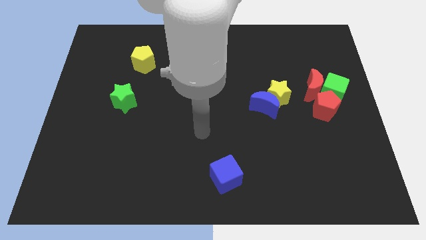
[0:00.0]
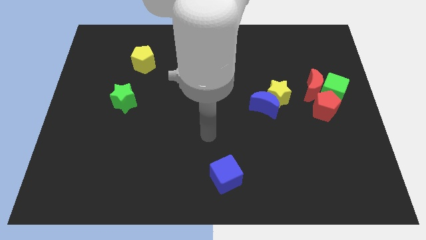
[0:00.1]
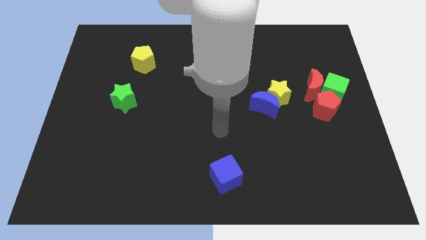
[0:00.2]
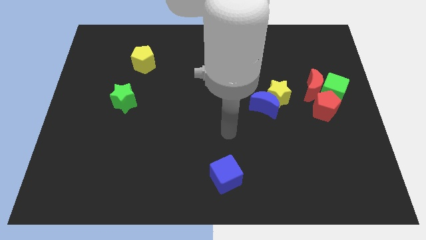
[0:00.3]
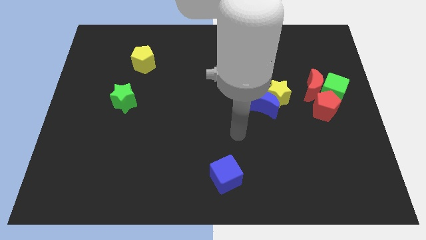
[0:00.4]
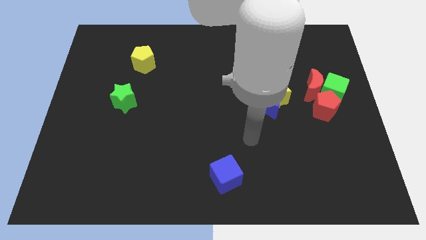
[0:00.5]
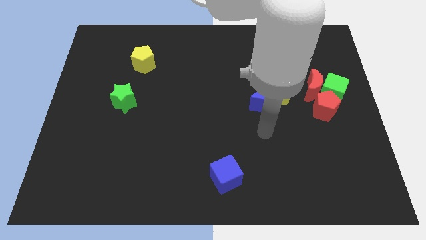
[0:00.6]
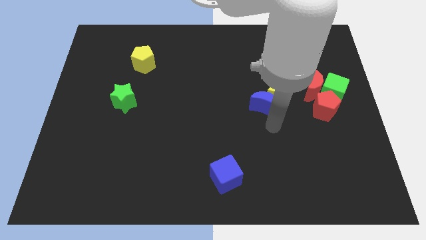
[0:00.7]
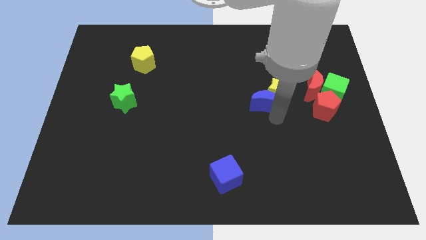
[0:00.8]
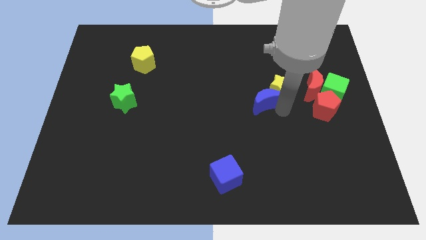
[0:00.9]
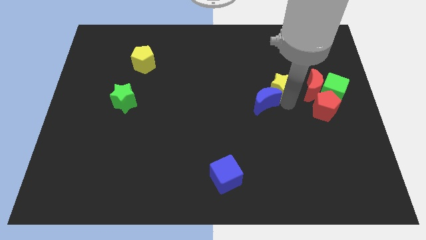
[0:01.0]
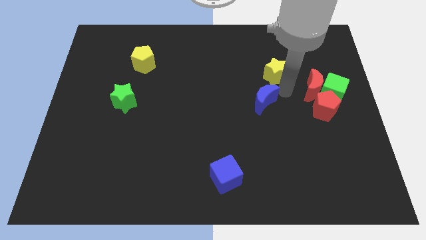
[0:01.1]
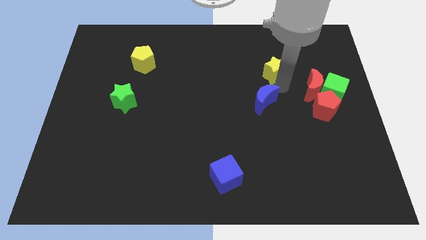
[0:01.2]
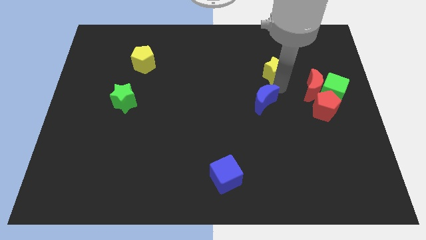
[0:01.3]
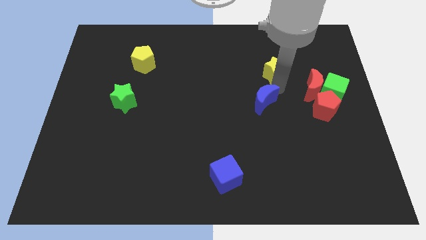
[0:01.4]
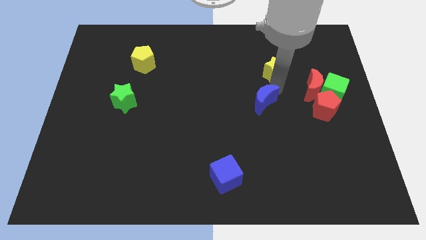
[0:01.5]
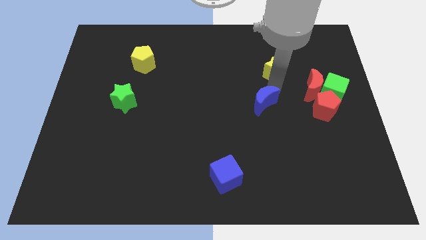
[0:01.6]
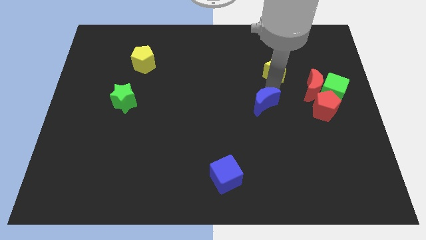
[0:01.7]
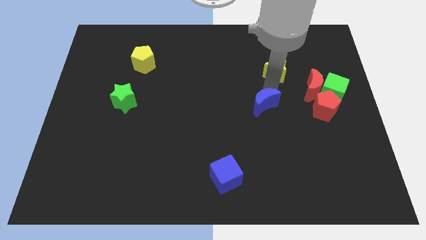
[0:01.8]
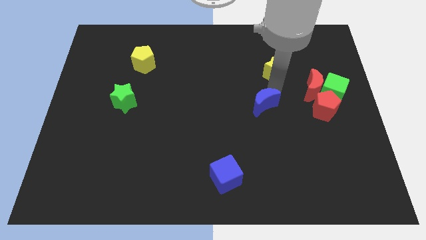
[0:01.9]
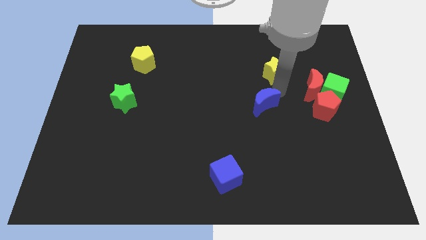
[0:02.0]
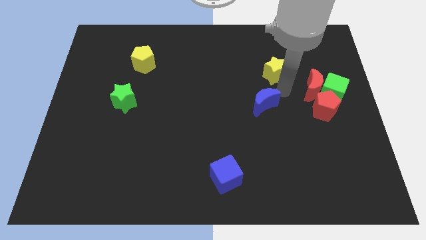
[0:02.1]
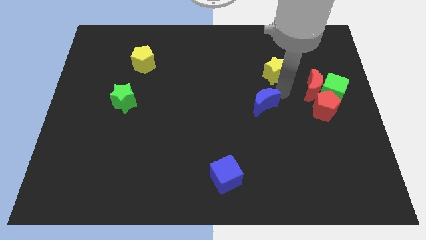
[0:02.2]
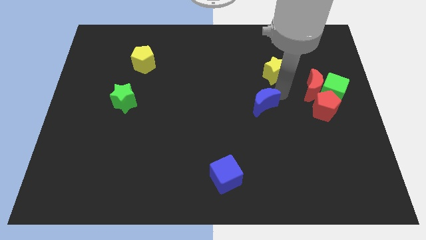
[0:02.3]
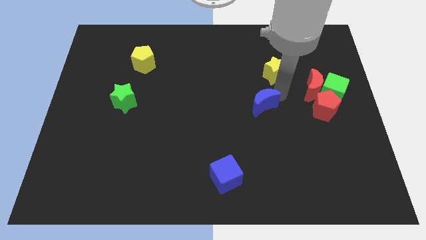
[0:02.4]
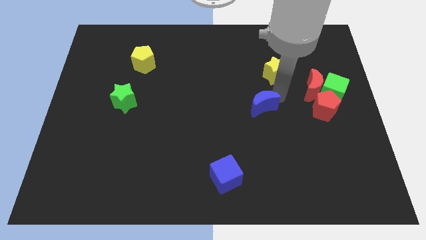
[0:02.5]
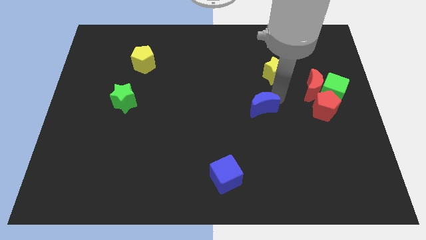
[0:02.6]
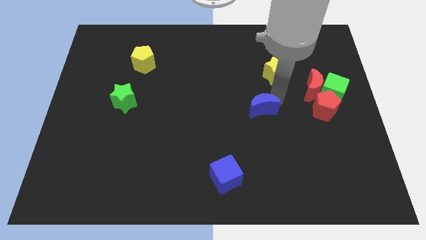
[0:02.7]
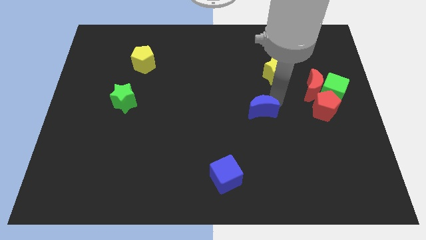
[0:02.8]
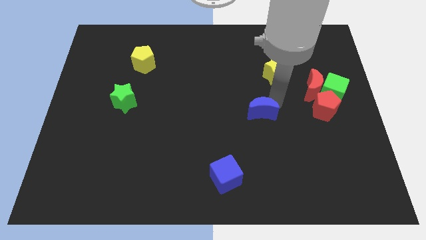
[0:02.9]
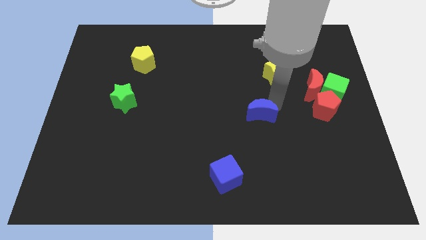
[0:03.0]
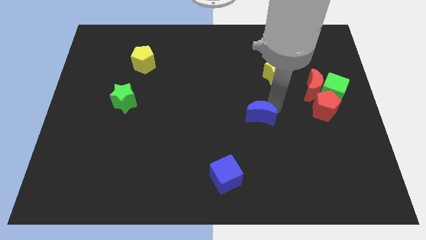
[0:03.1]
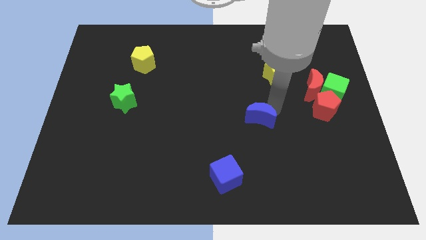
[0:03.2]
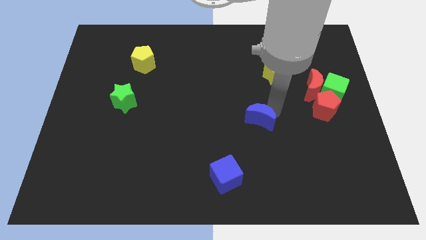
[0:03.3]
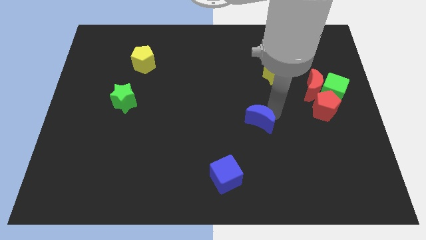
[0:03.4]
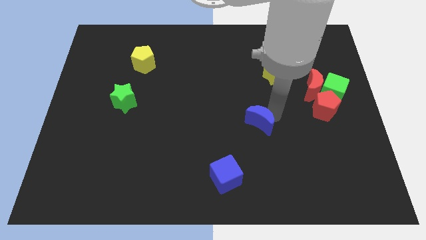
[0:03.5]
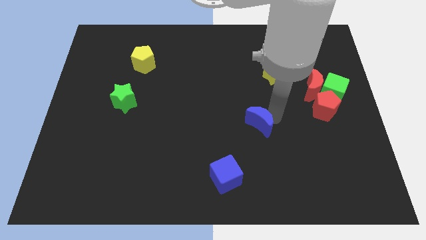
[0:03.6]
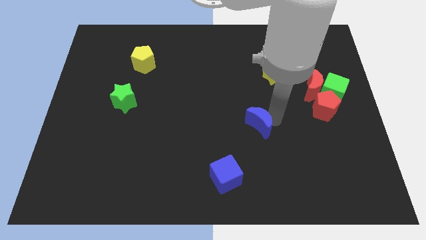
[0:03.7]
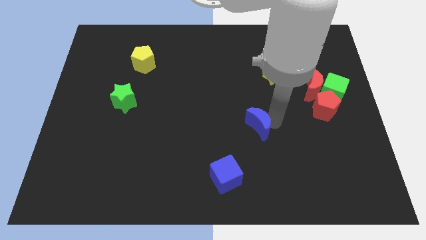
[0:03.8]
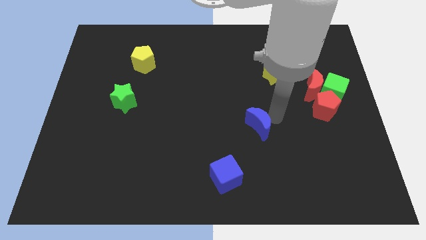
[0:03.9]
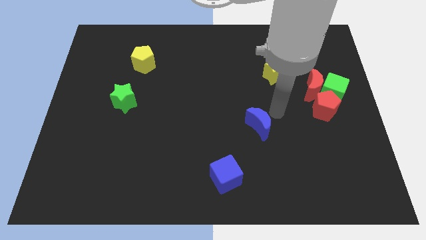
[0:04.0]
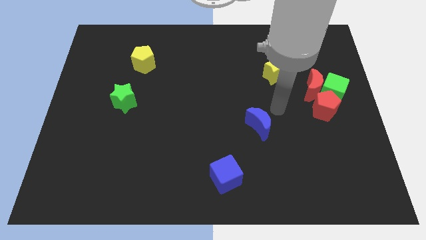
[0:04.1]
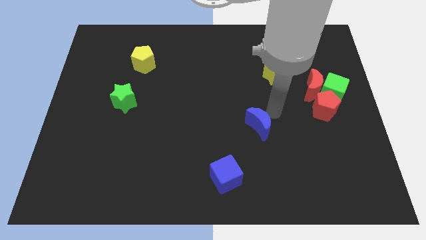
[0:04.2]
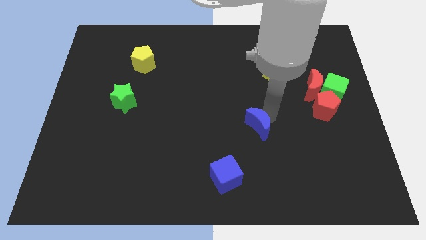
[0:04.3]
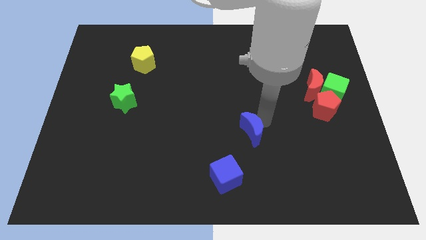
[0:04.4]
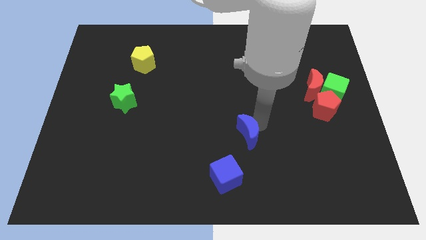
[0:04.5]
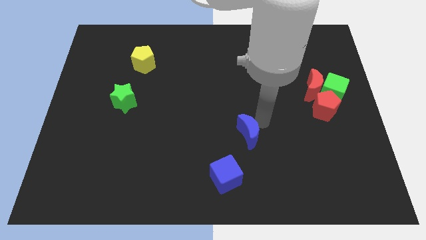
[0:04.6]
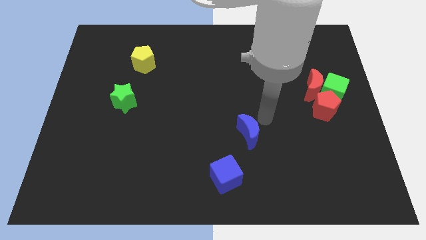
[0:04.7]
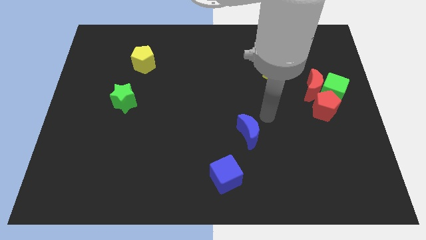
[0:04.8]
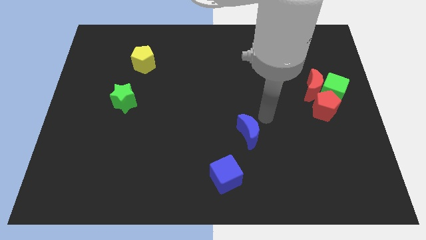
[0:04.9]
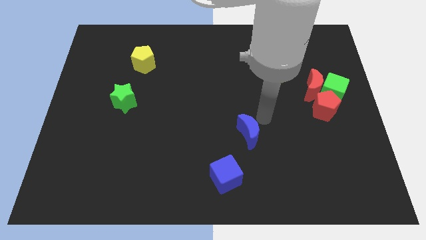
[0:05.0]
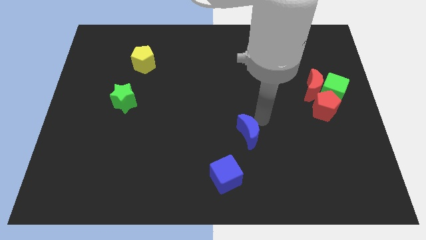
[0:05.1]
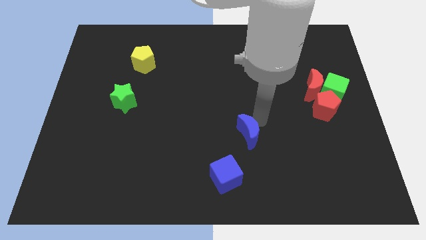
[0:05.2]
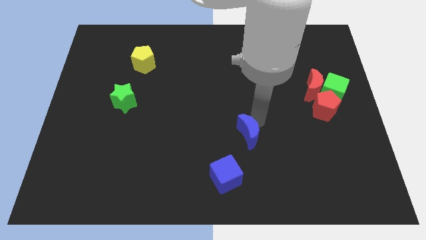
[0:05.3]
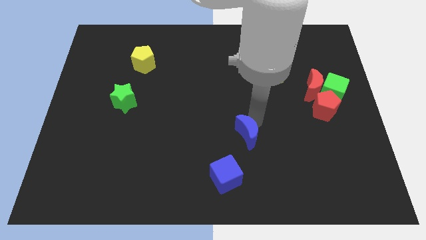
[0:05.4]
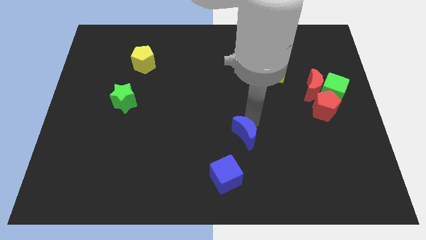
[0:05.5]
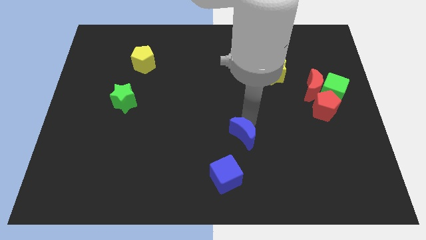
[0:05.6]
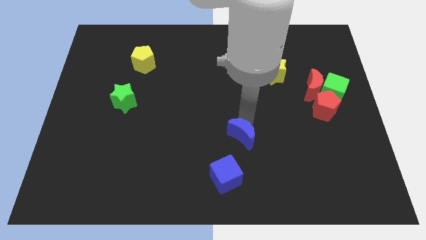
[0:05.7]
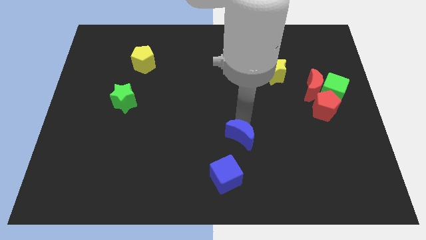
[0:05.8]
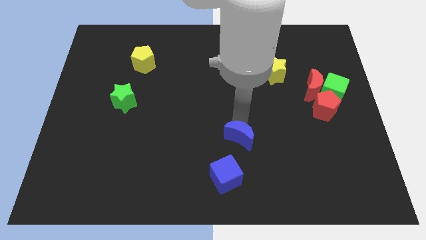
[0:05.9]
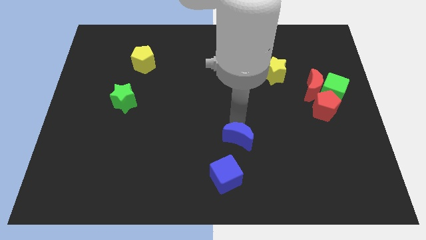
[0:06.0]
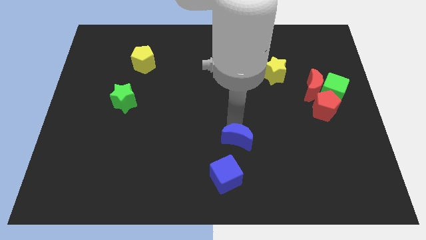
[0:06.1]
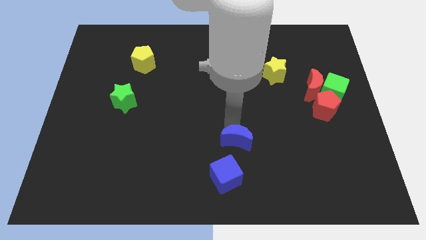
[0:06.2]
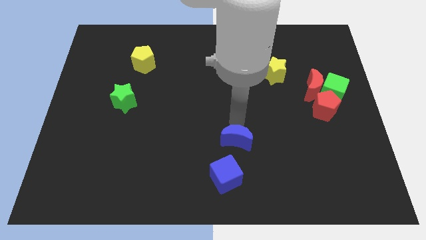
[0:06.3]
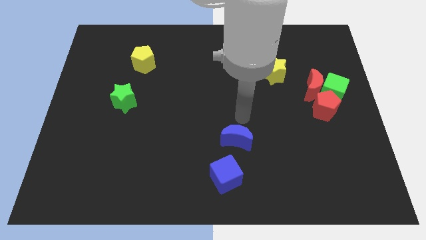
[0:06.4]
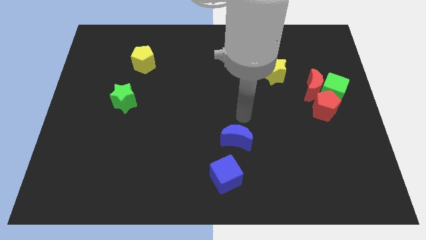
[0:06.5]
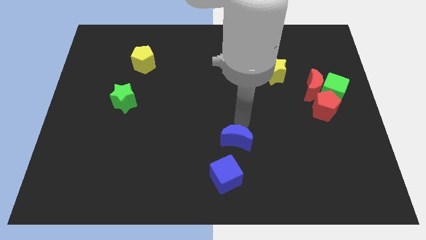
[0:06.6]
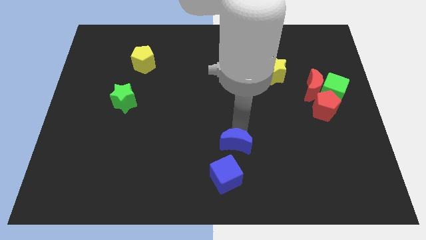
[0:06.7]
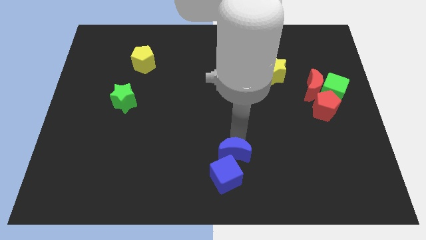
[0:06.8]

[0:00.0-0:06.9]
put the blue moon to the blue cube

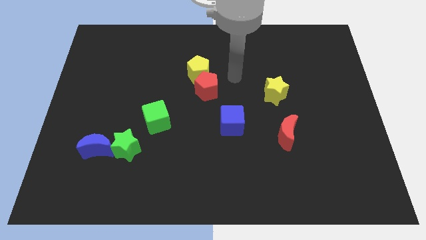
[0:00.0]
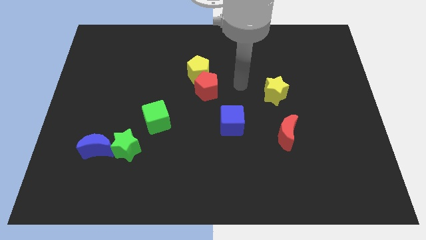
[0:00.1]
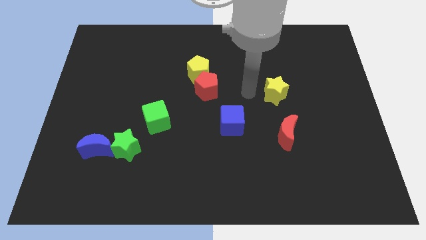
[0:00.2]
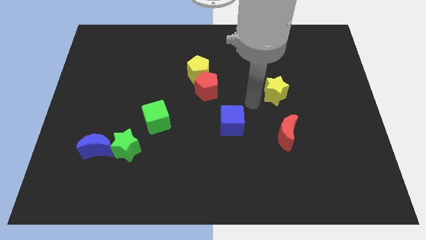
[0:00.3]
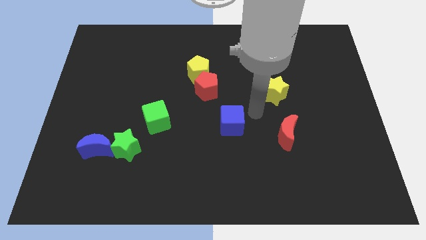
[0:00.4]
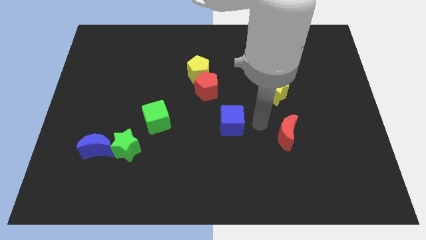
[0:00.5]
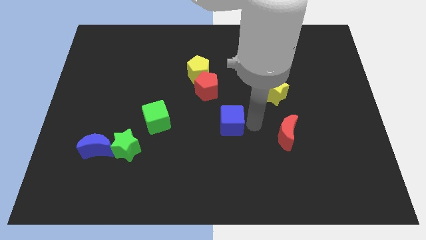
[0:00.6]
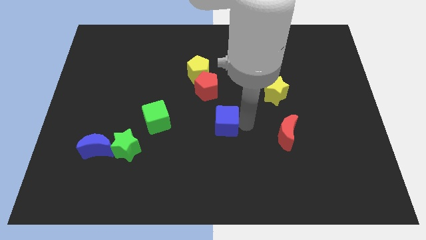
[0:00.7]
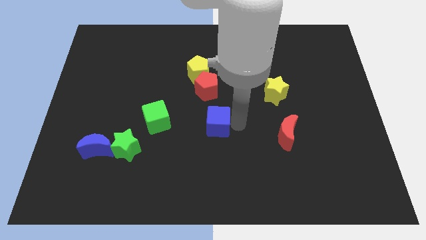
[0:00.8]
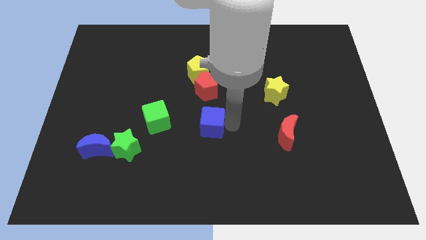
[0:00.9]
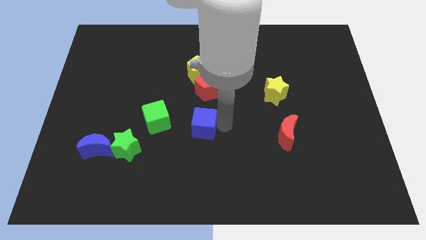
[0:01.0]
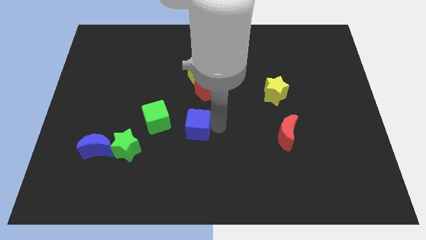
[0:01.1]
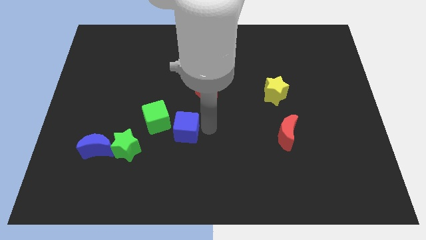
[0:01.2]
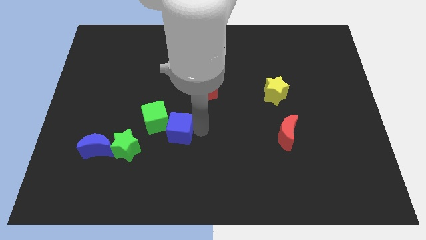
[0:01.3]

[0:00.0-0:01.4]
push the blue cube to the green cube
